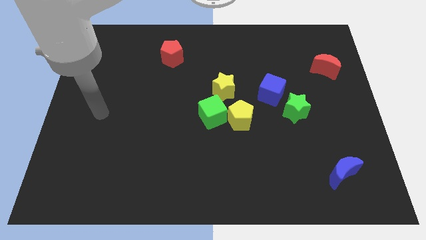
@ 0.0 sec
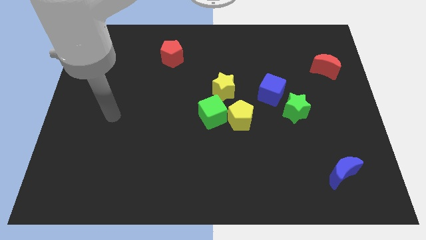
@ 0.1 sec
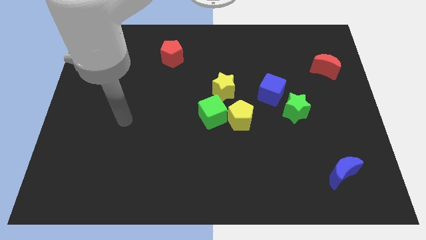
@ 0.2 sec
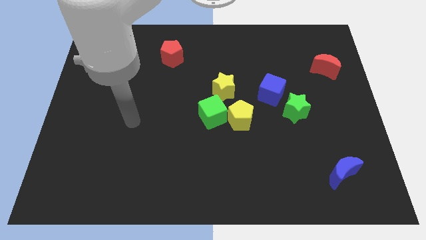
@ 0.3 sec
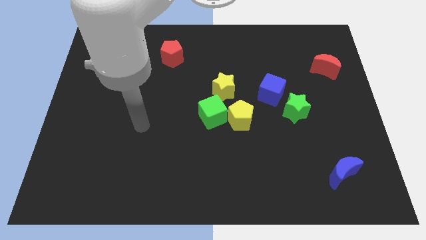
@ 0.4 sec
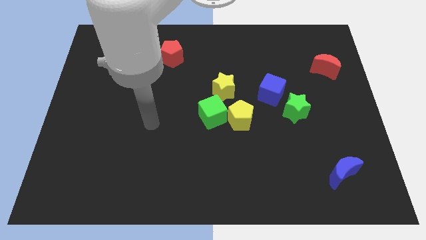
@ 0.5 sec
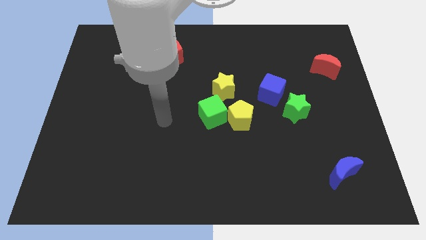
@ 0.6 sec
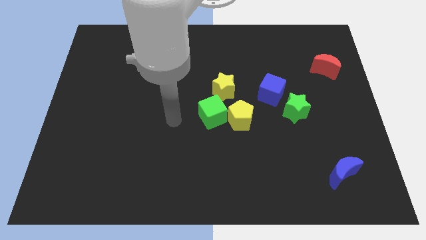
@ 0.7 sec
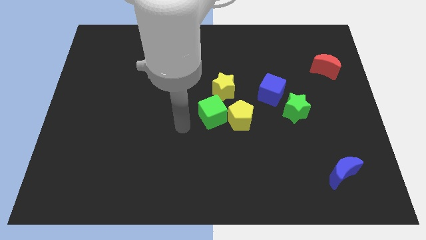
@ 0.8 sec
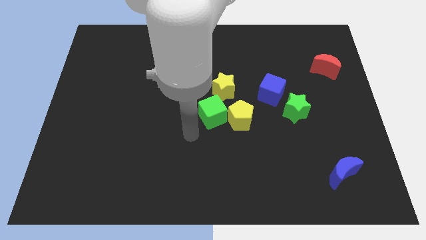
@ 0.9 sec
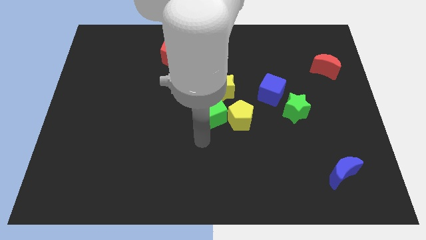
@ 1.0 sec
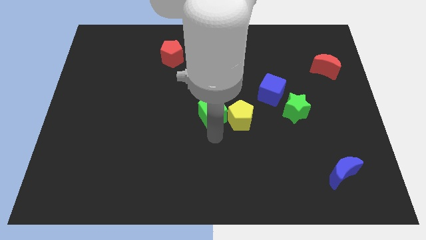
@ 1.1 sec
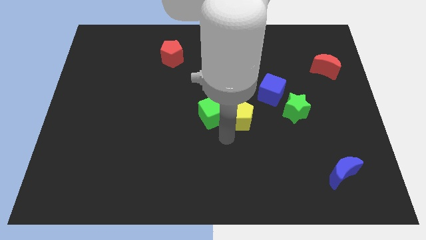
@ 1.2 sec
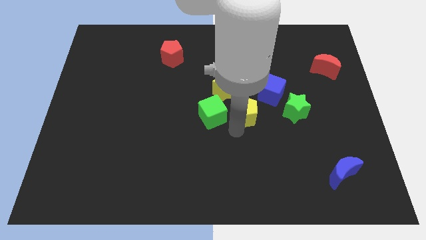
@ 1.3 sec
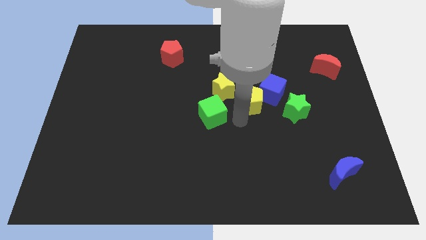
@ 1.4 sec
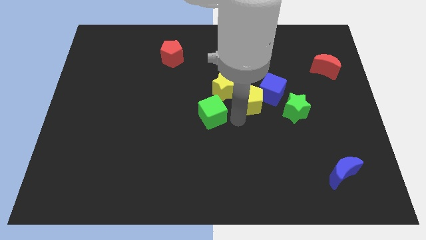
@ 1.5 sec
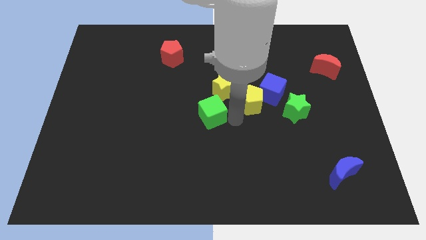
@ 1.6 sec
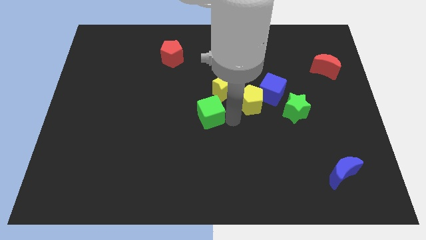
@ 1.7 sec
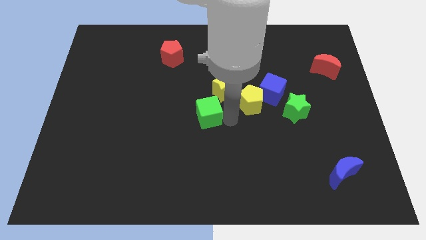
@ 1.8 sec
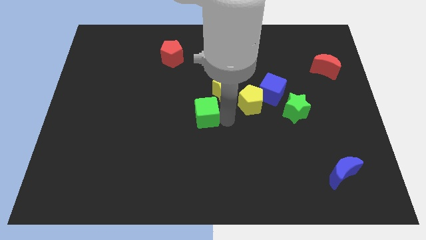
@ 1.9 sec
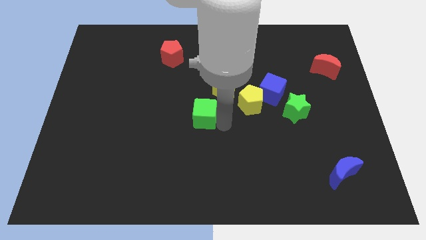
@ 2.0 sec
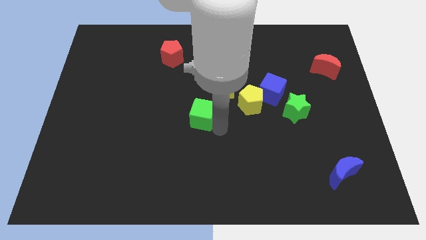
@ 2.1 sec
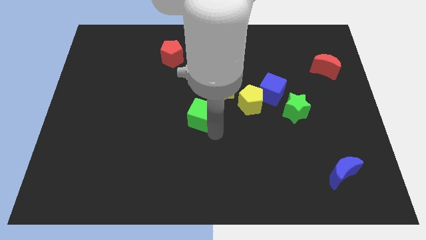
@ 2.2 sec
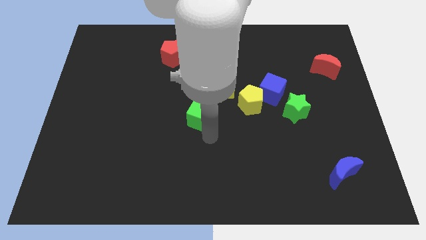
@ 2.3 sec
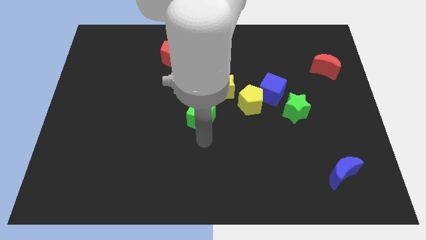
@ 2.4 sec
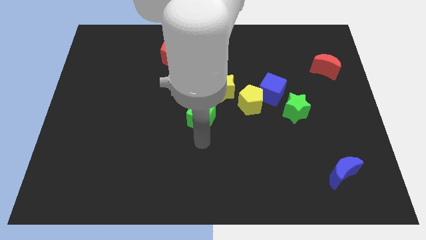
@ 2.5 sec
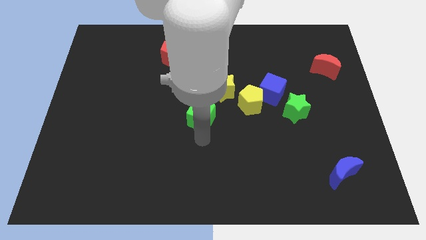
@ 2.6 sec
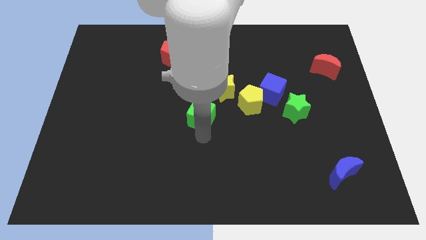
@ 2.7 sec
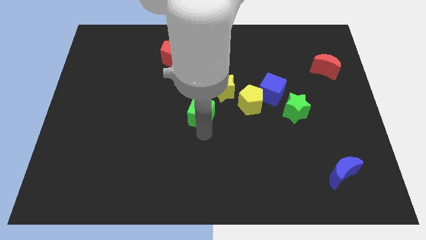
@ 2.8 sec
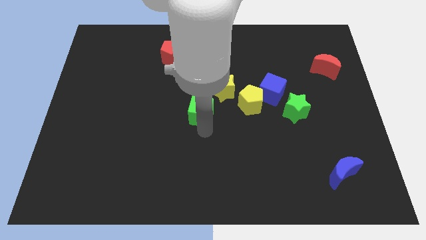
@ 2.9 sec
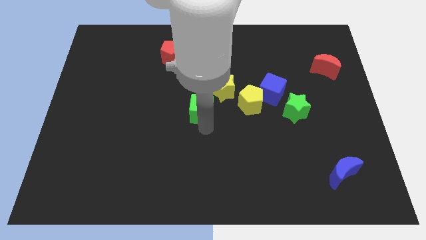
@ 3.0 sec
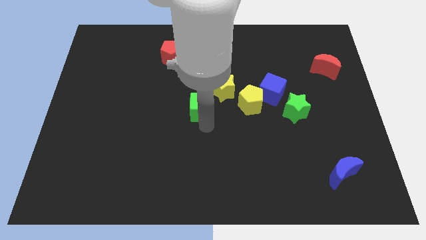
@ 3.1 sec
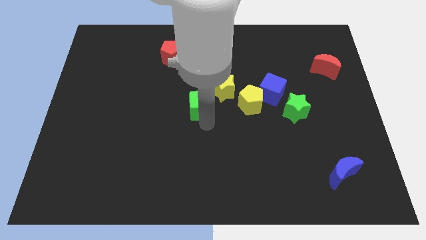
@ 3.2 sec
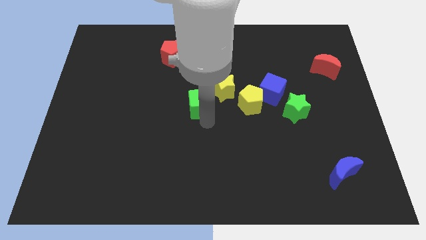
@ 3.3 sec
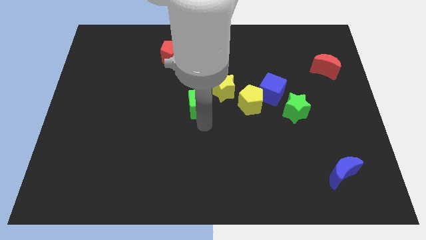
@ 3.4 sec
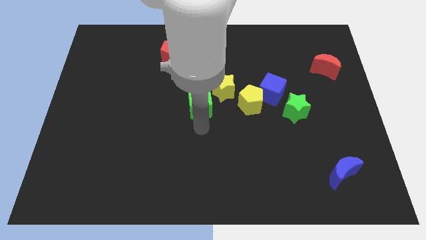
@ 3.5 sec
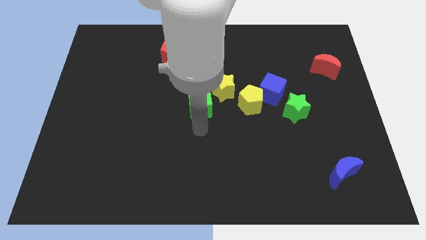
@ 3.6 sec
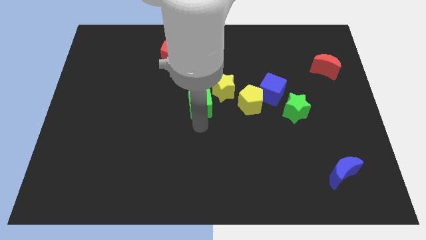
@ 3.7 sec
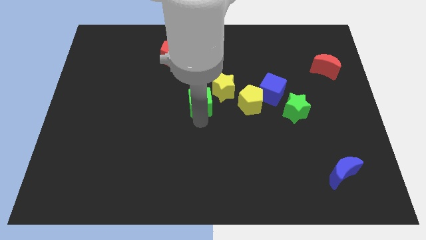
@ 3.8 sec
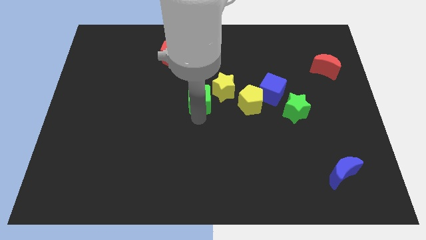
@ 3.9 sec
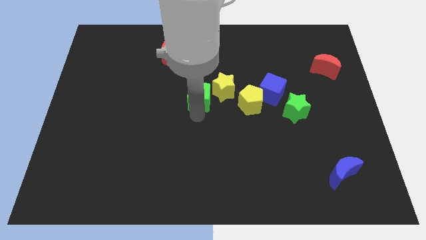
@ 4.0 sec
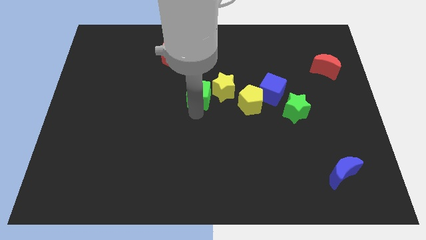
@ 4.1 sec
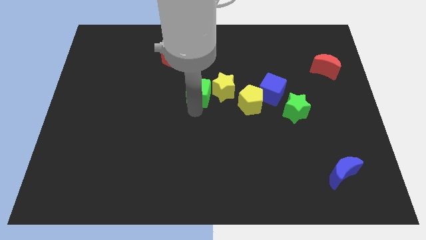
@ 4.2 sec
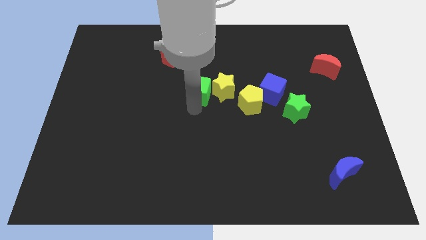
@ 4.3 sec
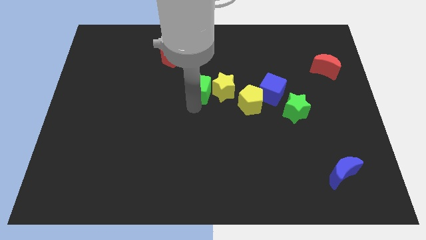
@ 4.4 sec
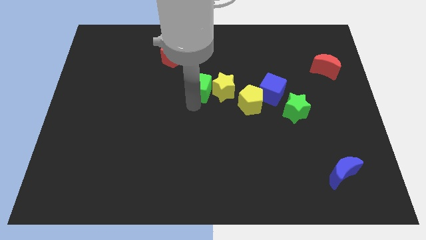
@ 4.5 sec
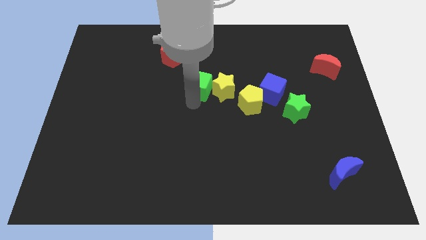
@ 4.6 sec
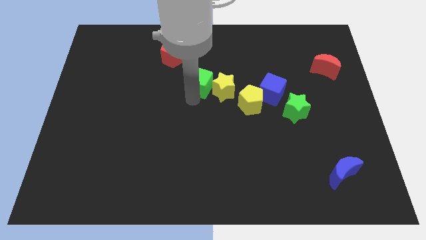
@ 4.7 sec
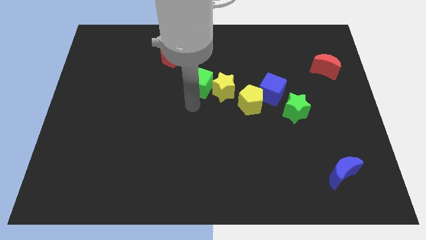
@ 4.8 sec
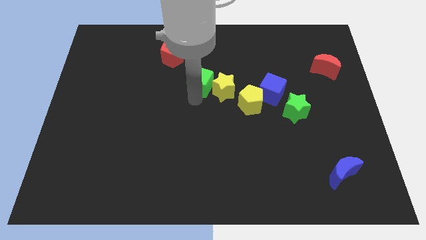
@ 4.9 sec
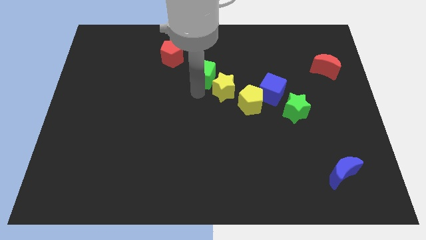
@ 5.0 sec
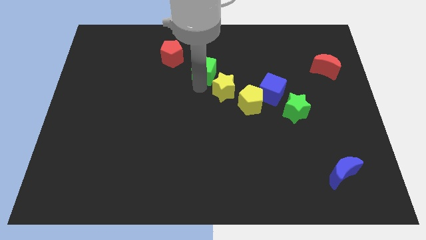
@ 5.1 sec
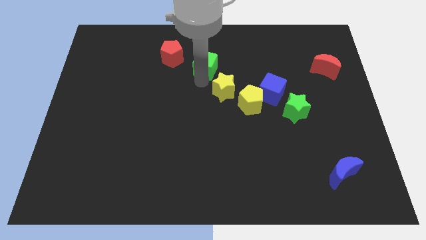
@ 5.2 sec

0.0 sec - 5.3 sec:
move the green cube just right of the red pentagon

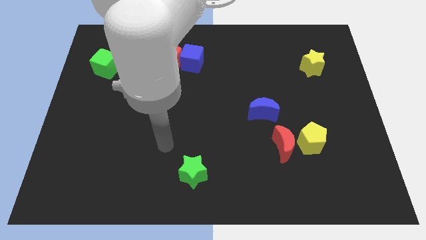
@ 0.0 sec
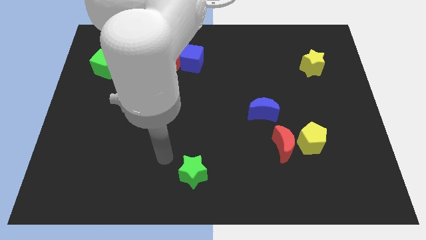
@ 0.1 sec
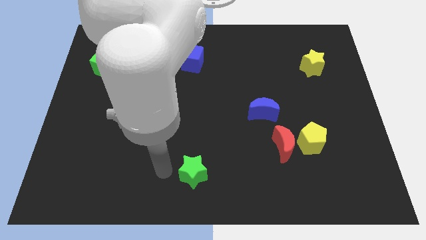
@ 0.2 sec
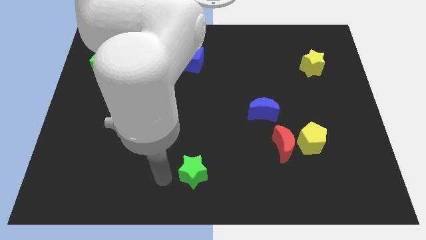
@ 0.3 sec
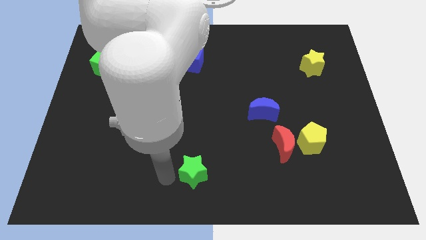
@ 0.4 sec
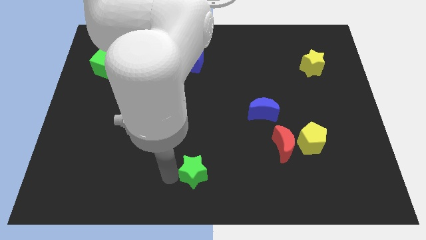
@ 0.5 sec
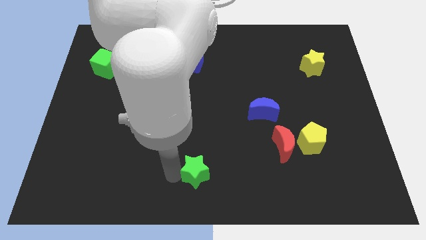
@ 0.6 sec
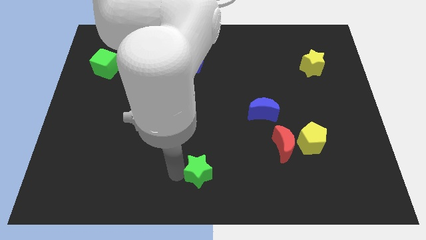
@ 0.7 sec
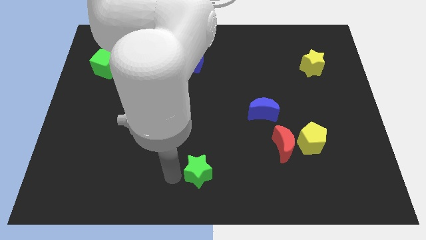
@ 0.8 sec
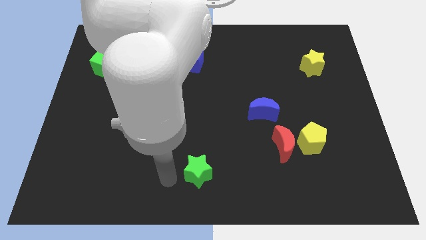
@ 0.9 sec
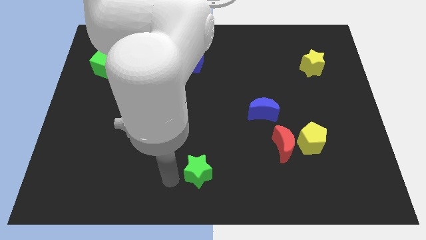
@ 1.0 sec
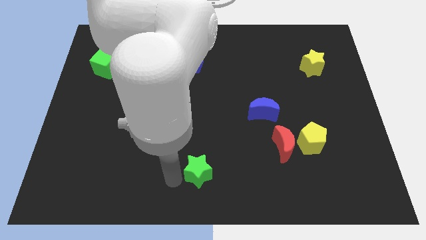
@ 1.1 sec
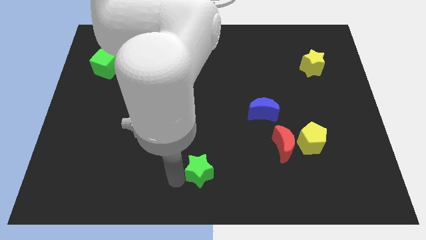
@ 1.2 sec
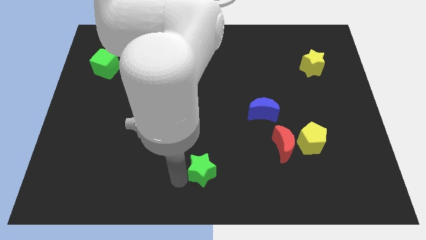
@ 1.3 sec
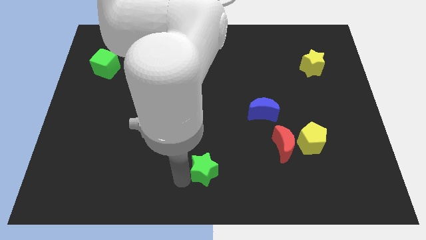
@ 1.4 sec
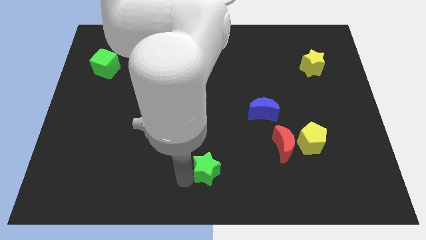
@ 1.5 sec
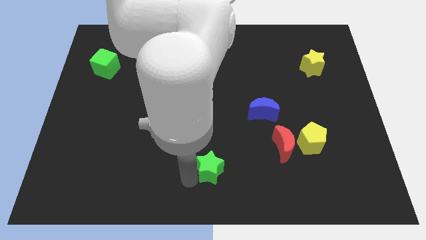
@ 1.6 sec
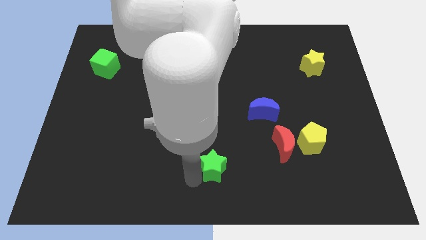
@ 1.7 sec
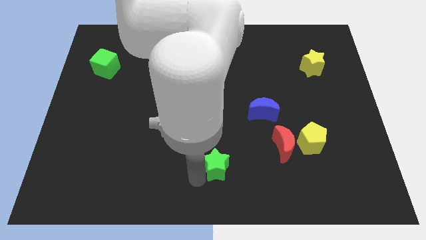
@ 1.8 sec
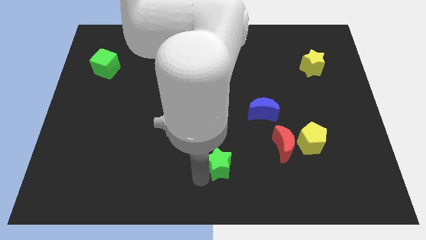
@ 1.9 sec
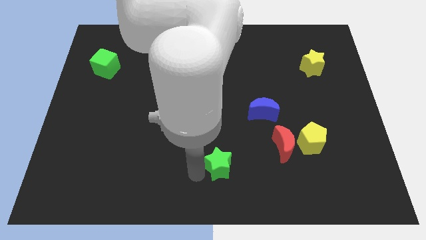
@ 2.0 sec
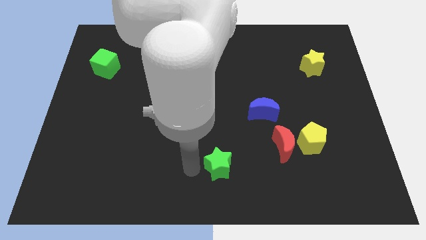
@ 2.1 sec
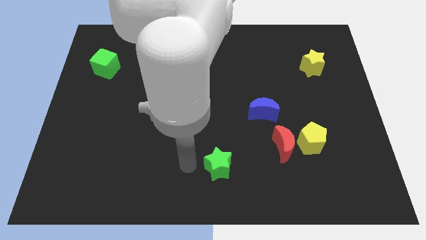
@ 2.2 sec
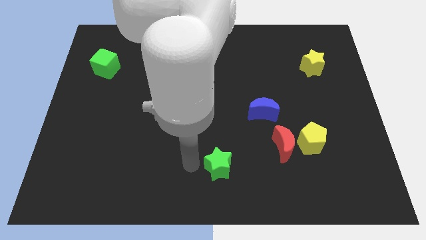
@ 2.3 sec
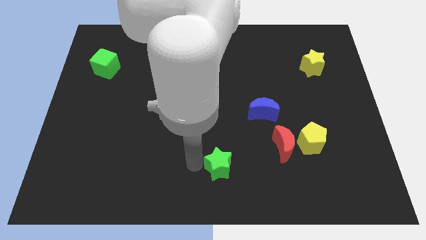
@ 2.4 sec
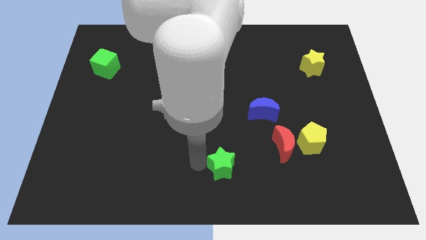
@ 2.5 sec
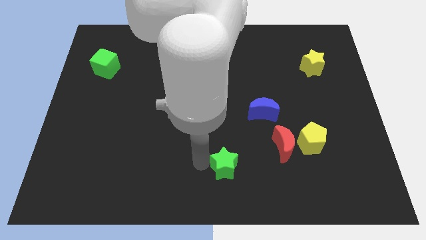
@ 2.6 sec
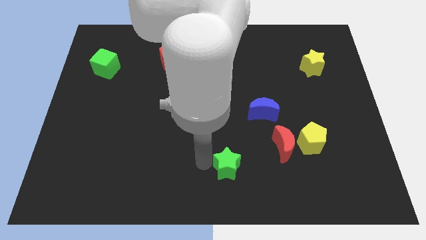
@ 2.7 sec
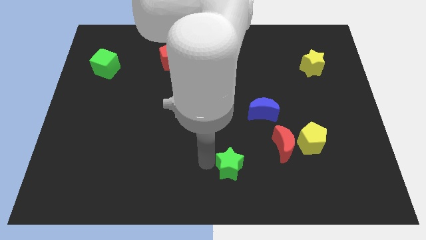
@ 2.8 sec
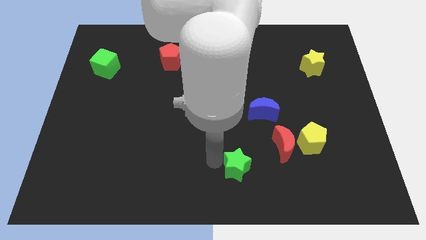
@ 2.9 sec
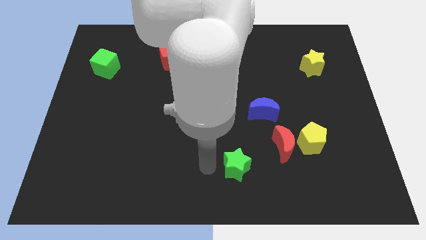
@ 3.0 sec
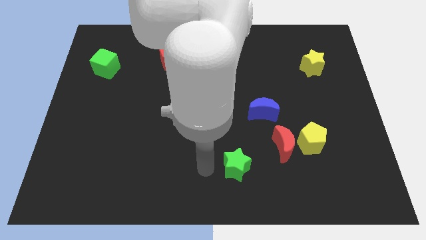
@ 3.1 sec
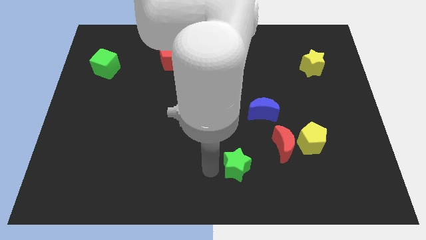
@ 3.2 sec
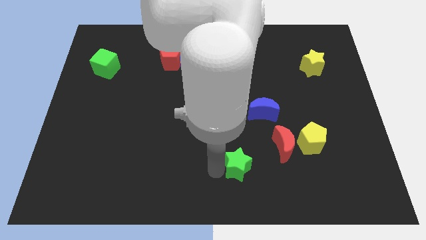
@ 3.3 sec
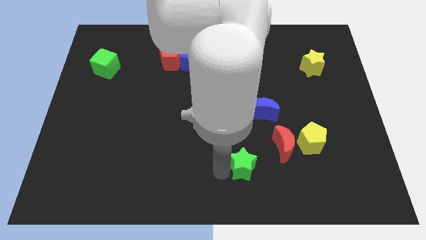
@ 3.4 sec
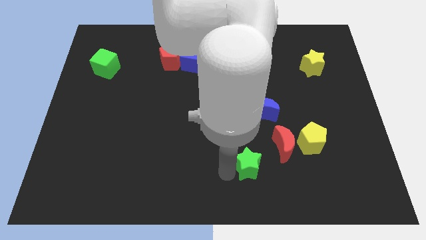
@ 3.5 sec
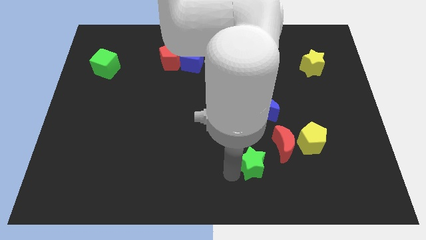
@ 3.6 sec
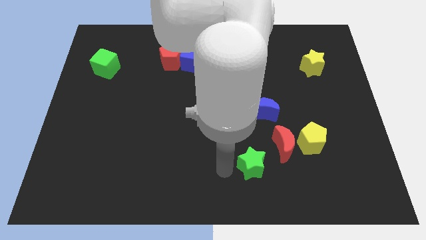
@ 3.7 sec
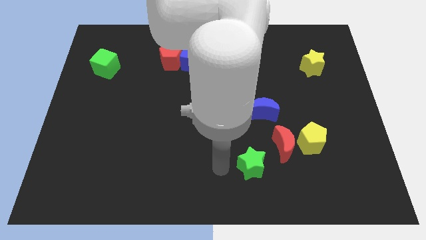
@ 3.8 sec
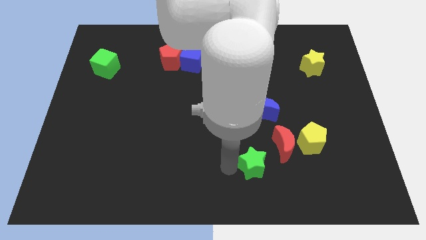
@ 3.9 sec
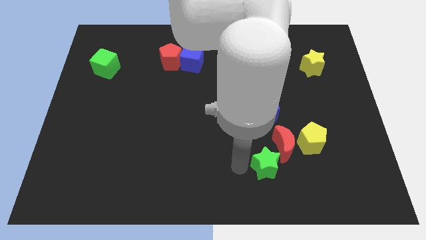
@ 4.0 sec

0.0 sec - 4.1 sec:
slide the green star to the bottom left side of the yellow pentagon
